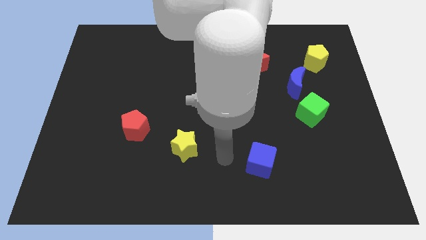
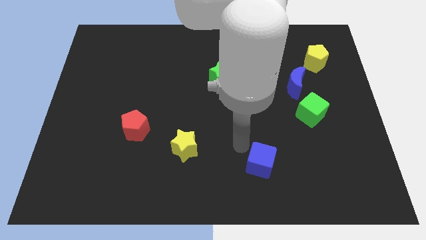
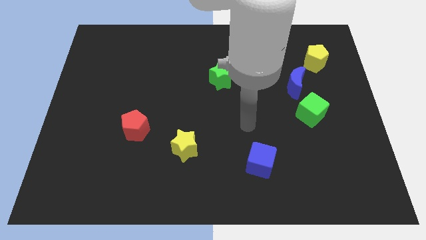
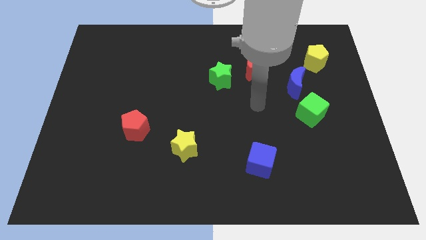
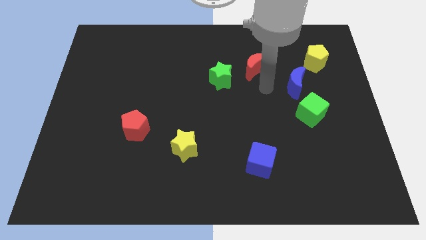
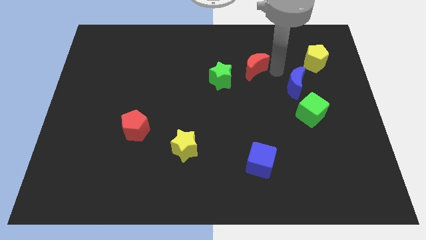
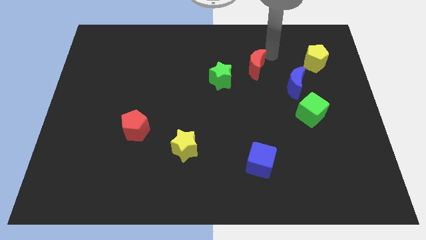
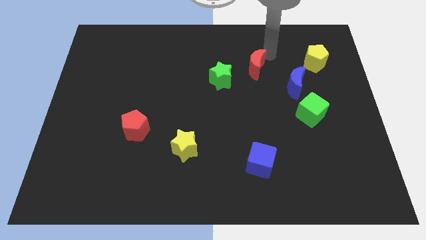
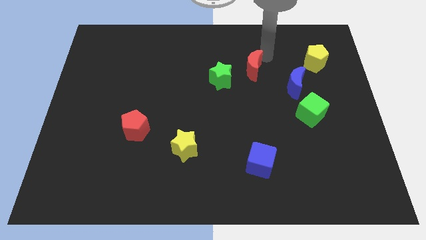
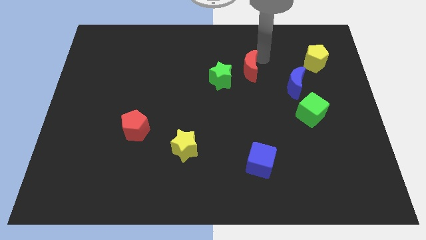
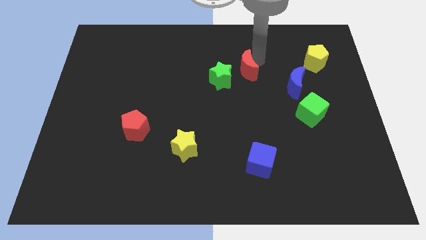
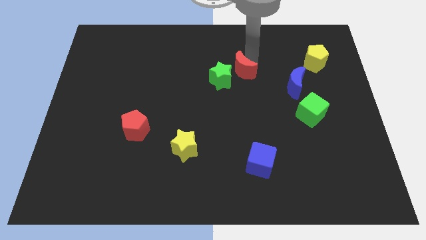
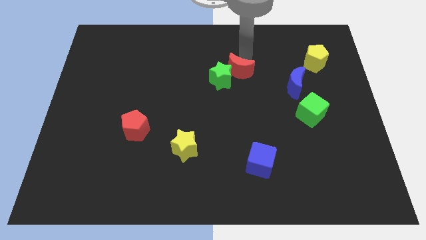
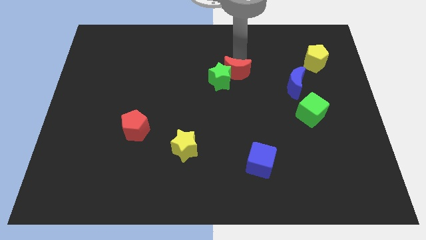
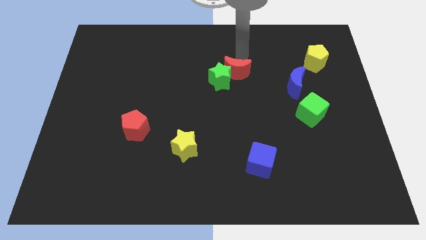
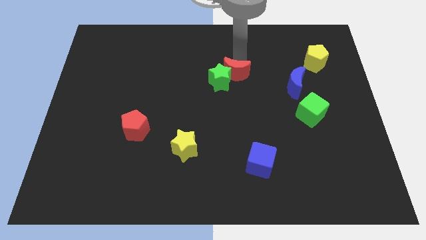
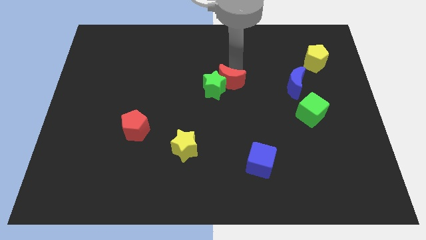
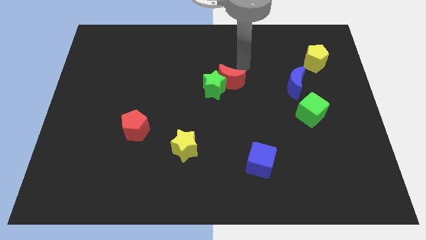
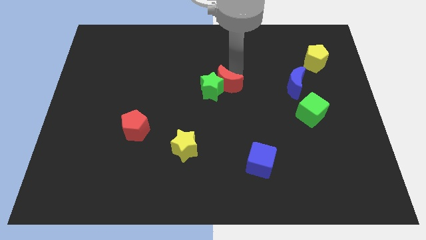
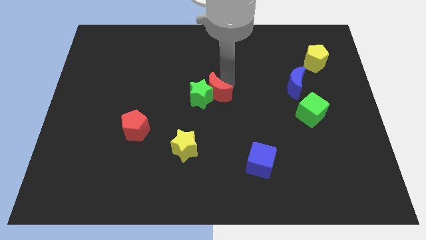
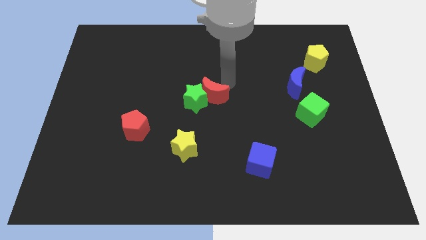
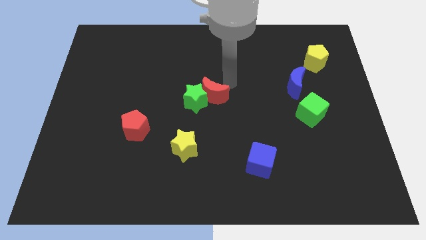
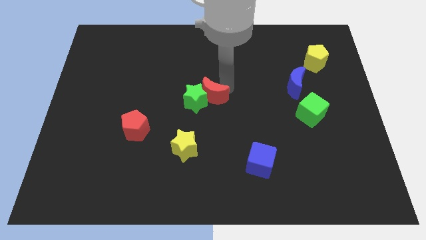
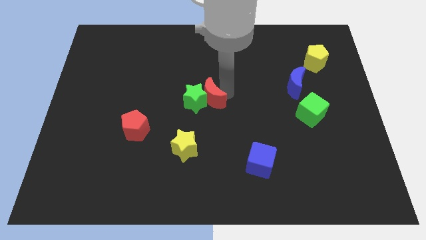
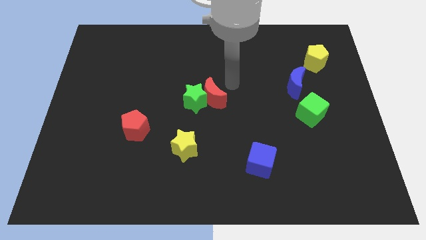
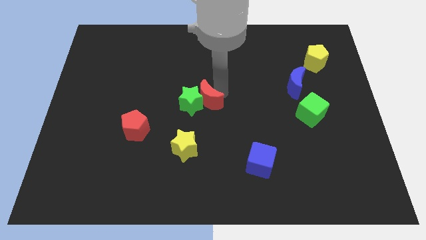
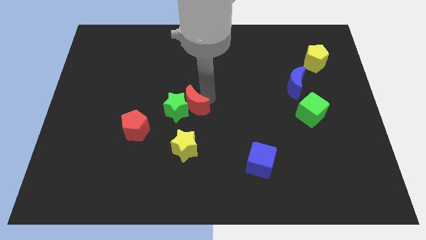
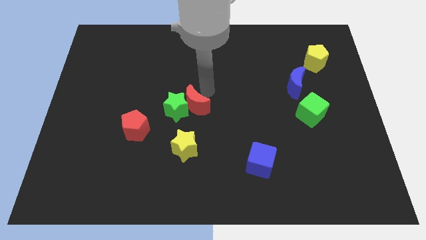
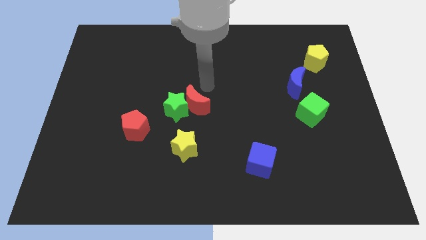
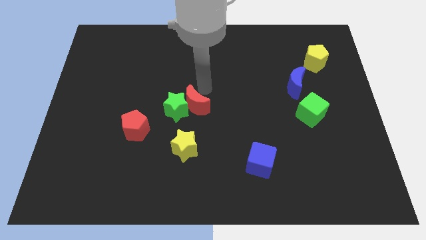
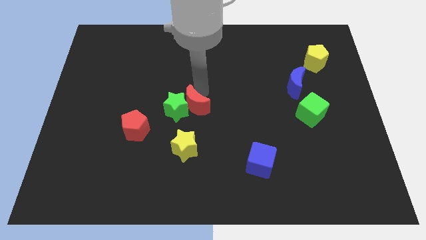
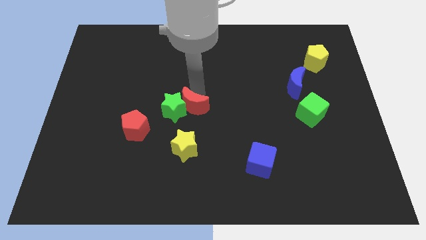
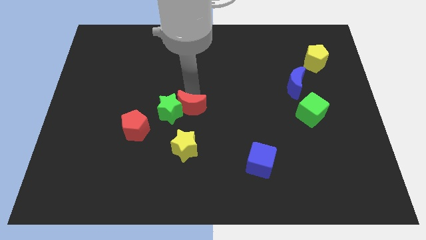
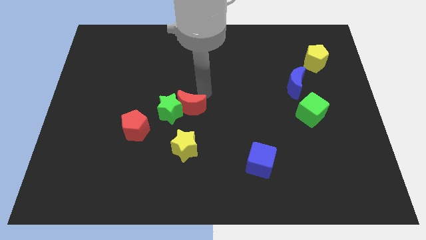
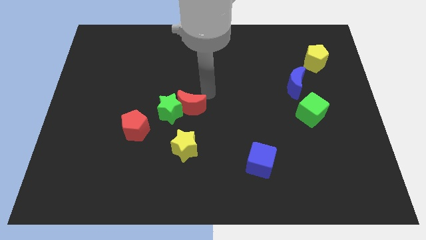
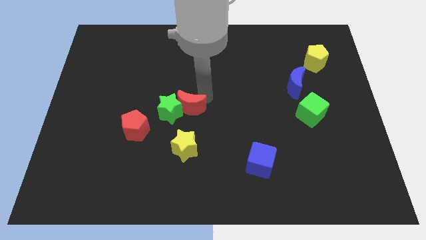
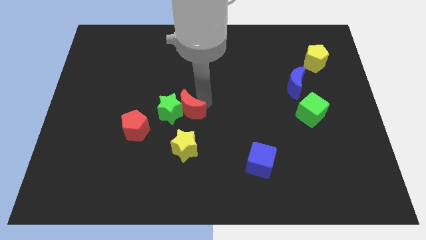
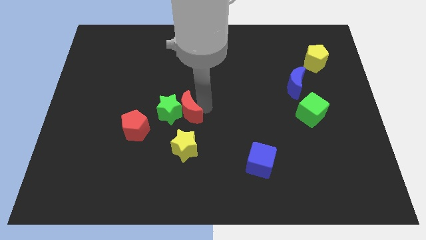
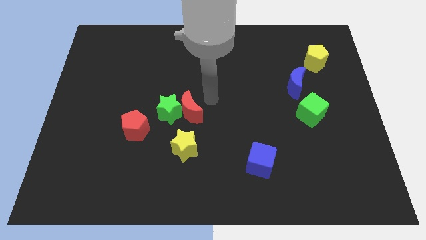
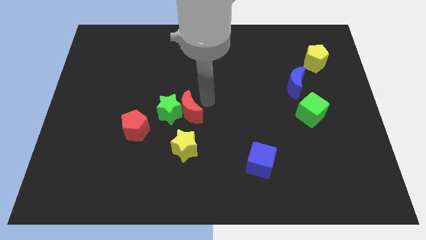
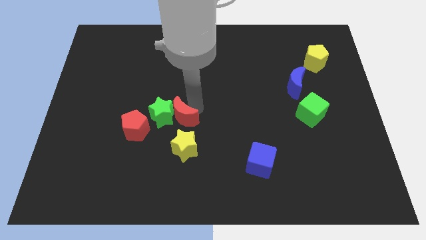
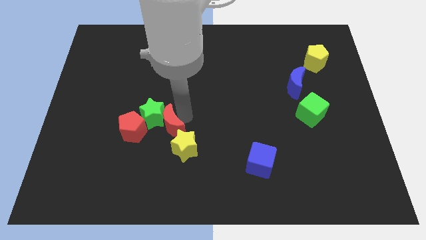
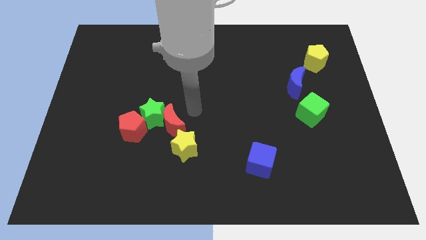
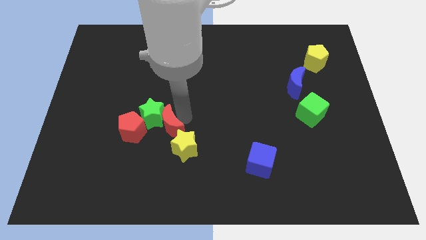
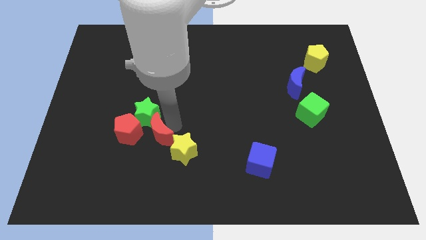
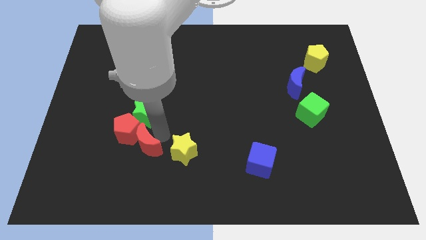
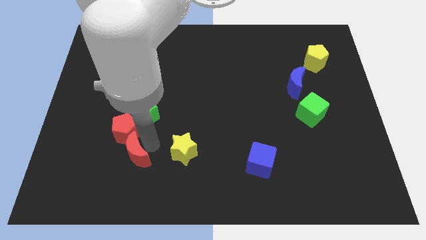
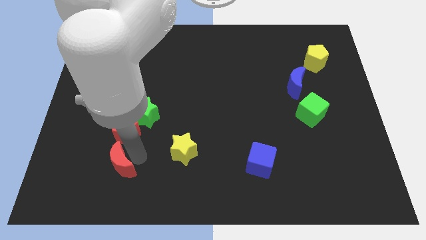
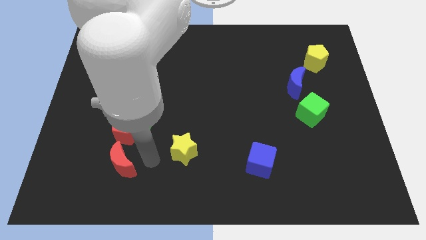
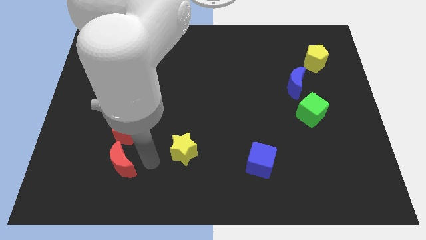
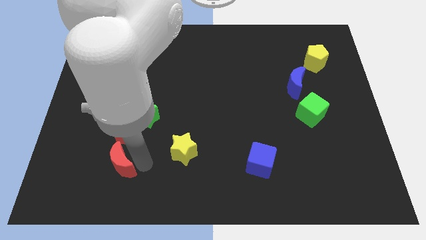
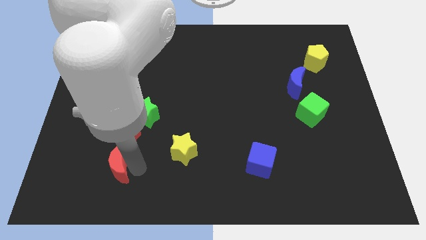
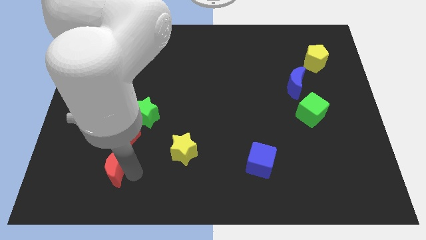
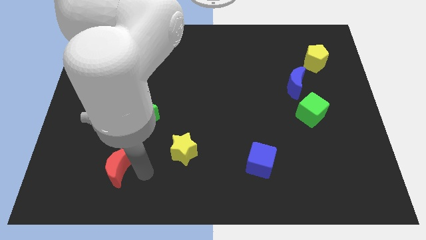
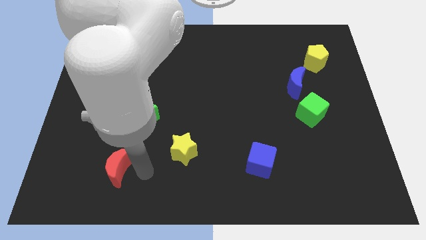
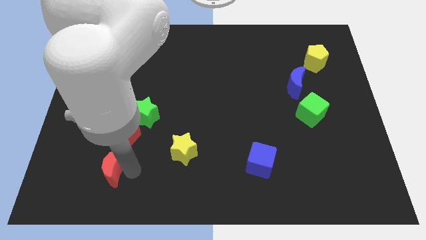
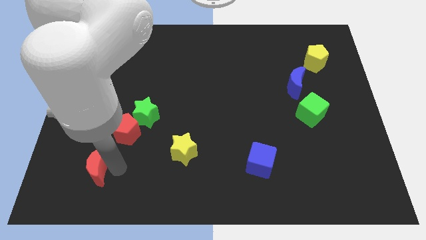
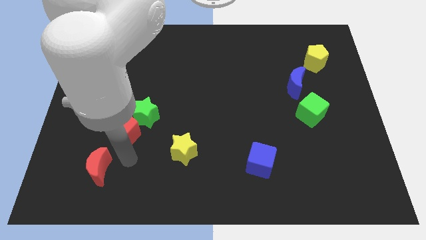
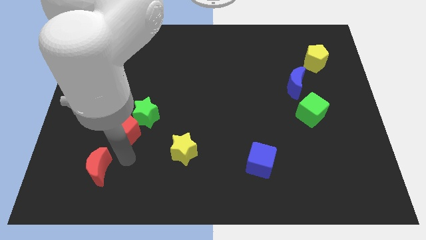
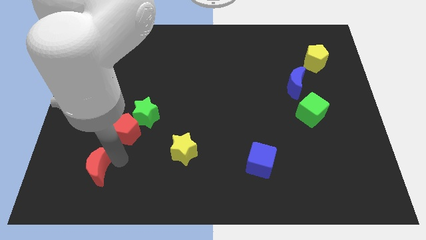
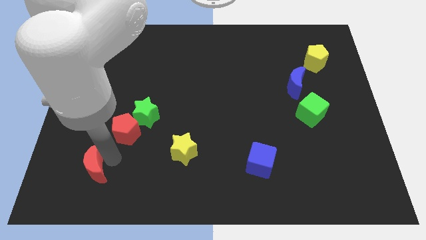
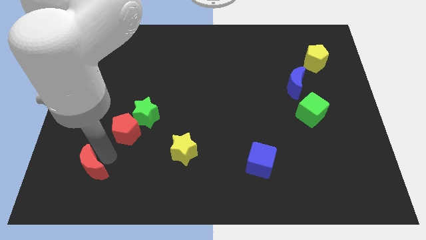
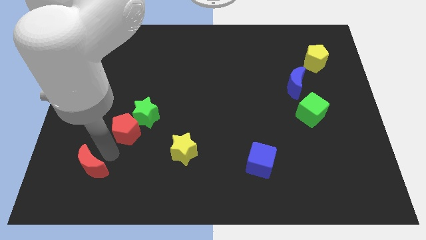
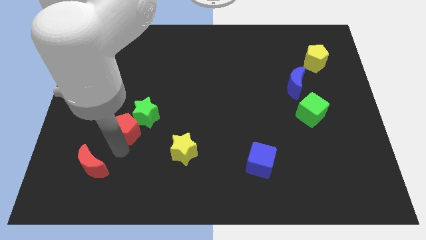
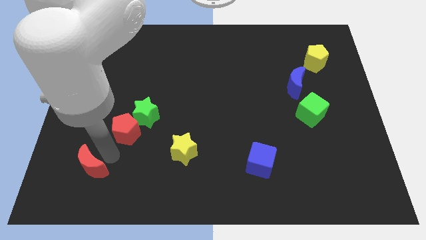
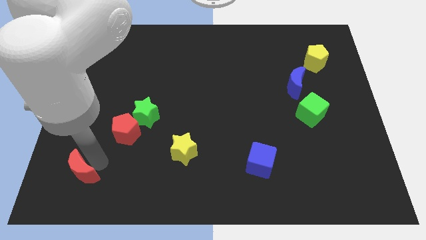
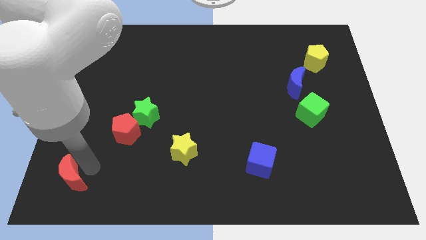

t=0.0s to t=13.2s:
push the red moon to the bottom left
